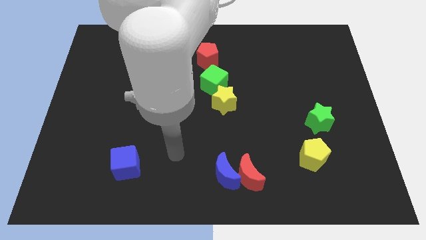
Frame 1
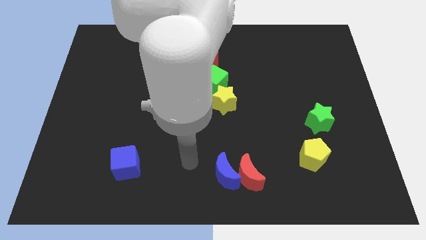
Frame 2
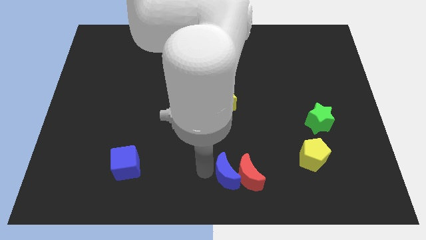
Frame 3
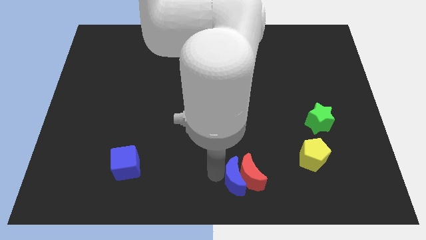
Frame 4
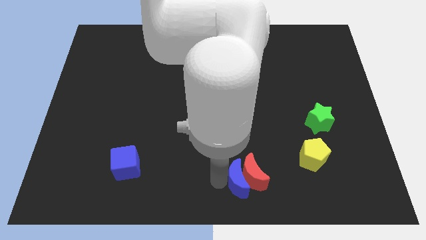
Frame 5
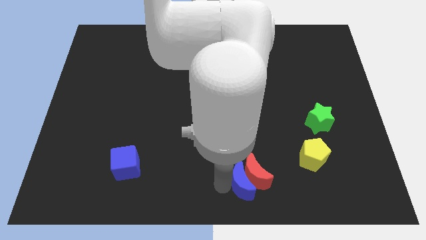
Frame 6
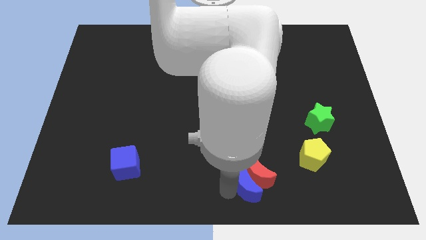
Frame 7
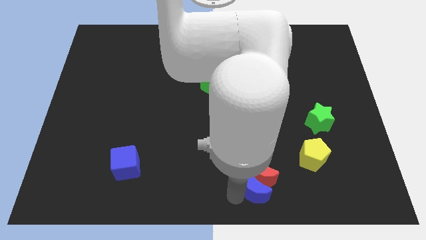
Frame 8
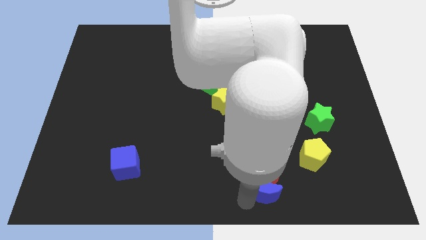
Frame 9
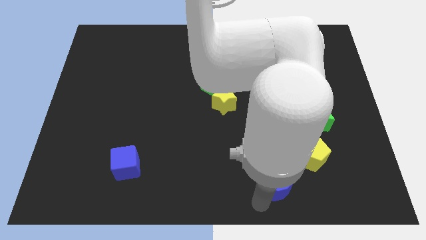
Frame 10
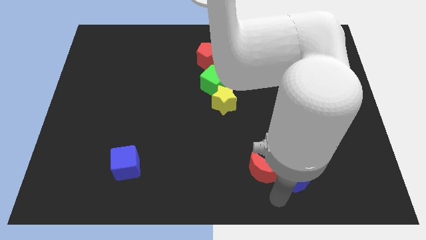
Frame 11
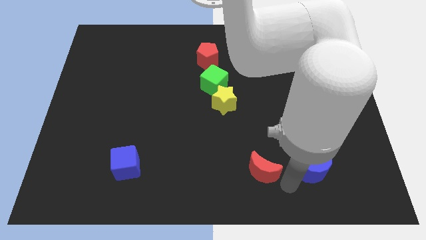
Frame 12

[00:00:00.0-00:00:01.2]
separate the red moon from the blue moon

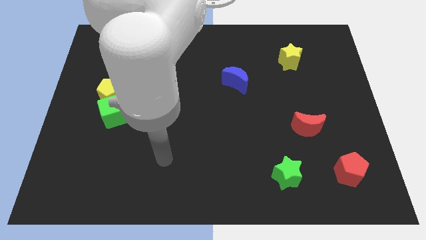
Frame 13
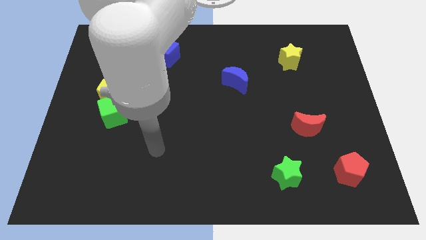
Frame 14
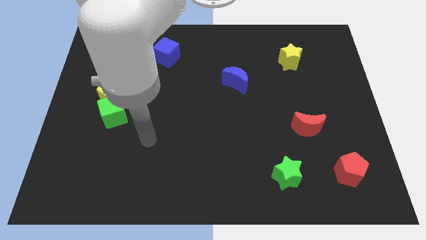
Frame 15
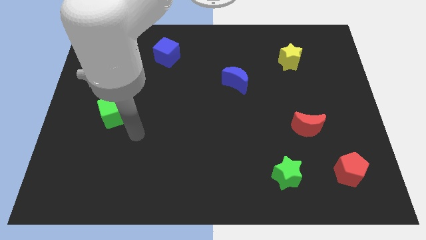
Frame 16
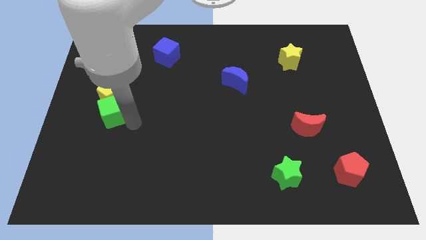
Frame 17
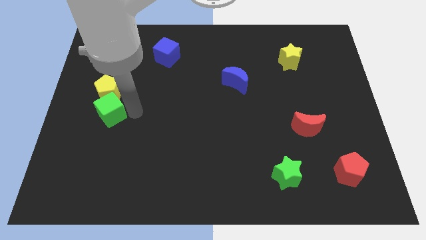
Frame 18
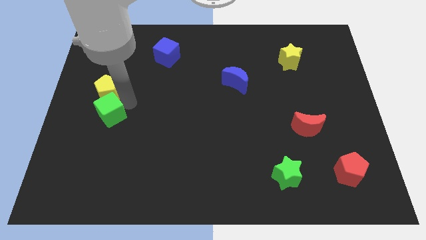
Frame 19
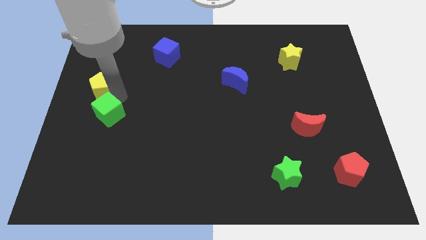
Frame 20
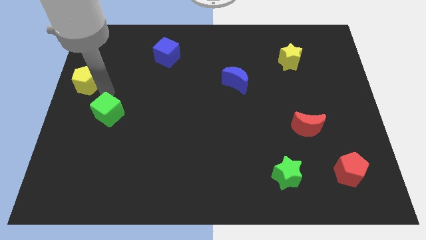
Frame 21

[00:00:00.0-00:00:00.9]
pull the green cube apart from the yellow pentagon

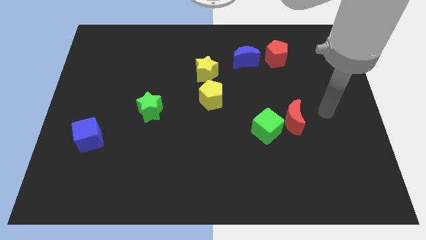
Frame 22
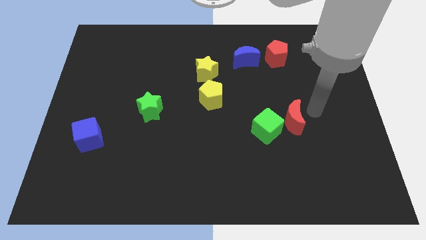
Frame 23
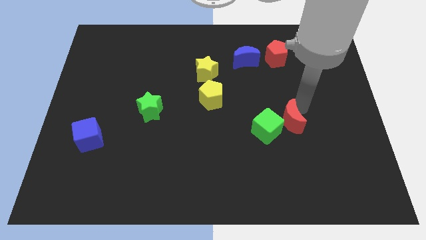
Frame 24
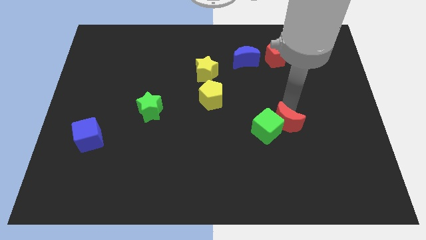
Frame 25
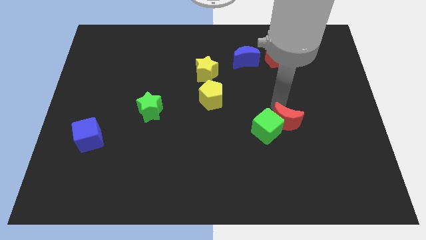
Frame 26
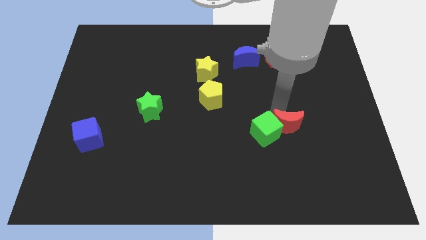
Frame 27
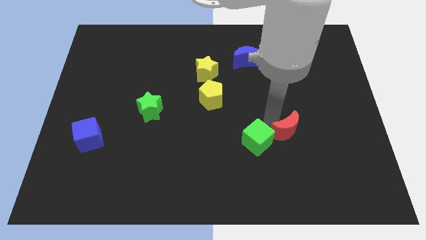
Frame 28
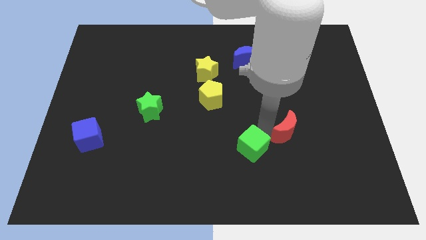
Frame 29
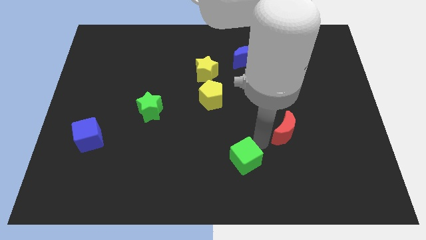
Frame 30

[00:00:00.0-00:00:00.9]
pull the red moon apart from the green cube

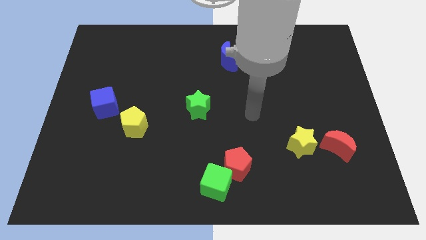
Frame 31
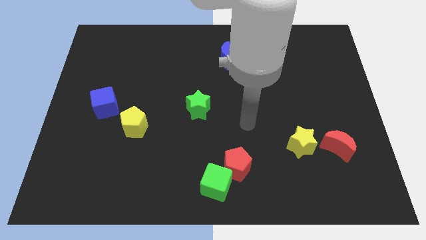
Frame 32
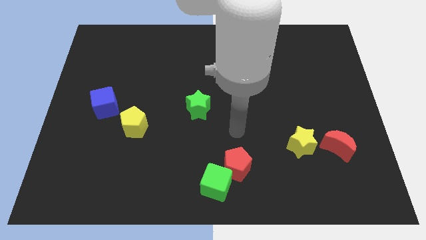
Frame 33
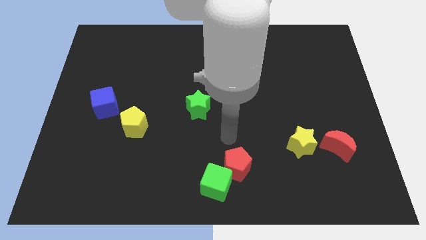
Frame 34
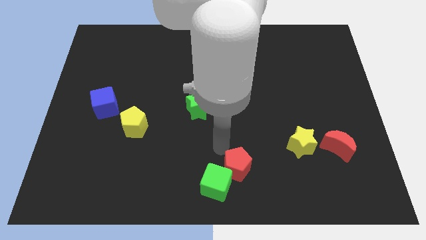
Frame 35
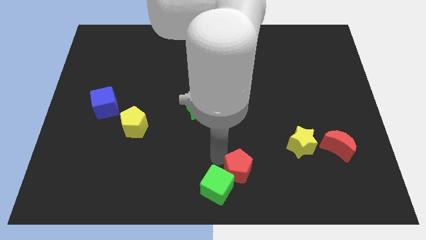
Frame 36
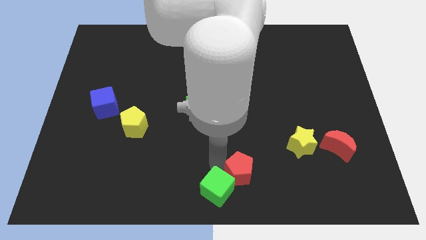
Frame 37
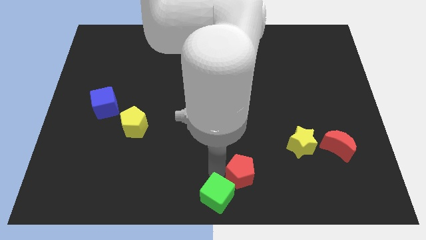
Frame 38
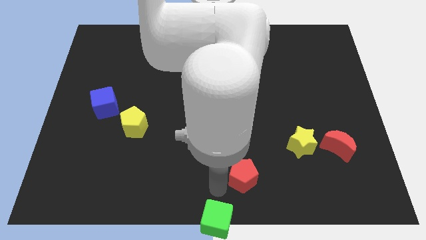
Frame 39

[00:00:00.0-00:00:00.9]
move the red pentagon away from the green cube

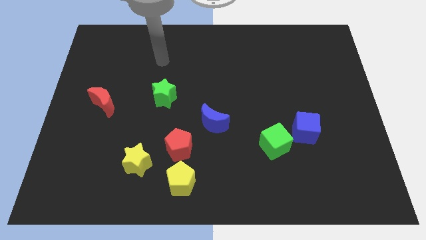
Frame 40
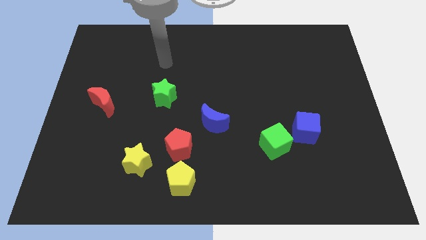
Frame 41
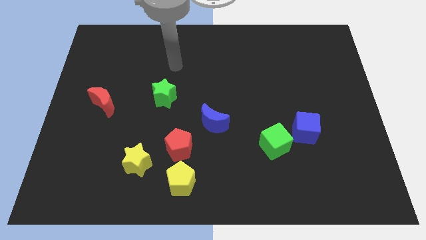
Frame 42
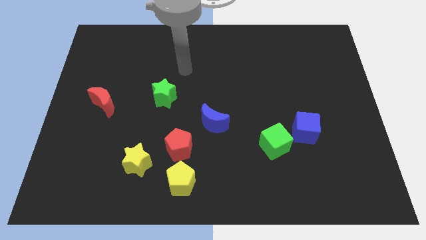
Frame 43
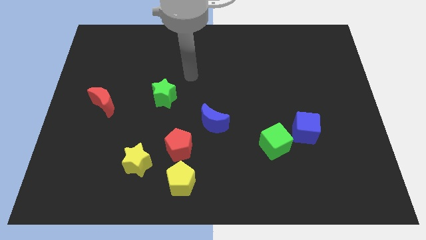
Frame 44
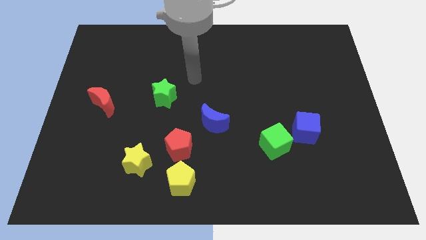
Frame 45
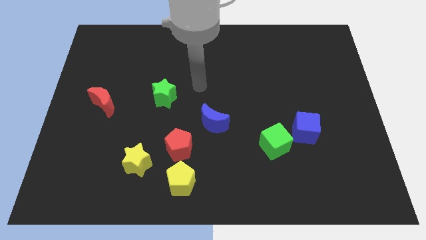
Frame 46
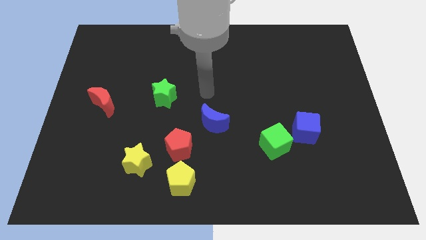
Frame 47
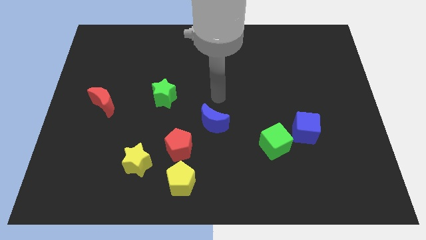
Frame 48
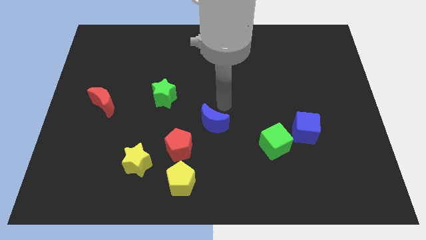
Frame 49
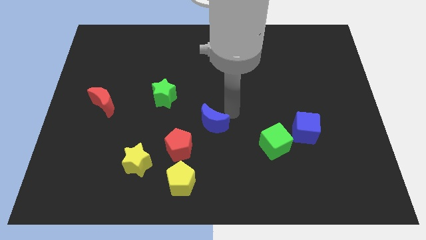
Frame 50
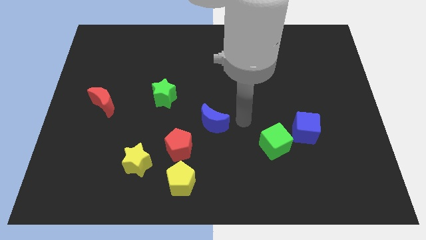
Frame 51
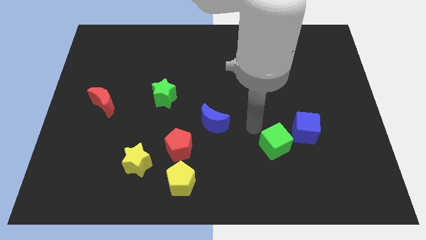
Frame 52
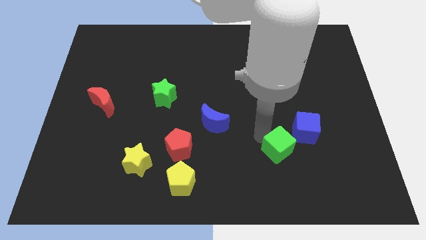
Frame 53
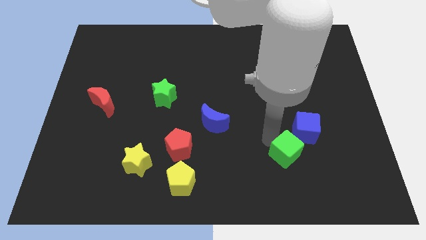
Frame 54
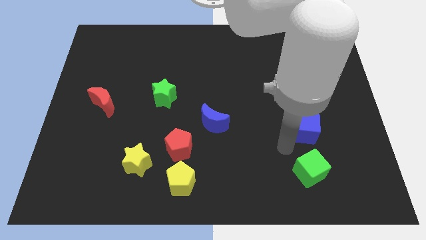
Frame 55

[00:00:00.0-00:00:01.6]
move the blue cube away from the green cube

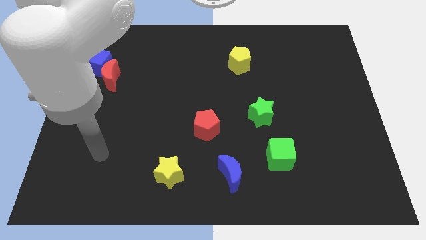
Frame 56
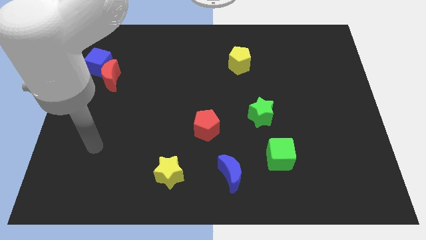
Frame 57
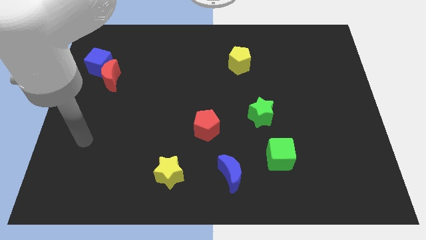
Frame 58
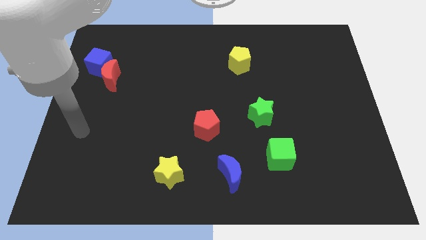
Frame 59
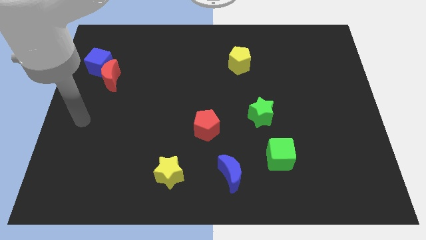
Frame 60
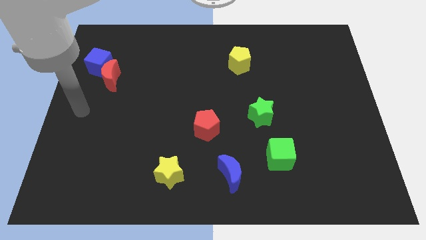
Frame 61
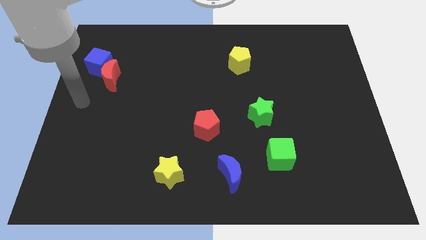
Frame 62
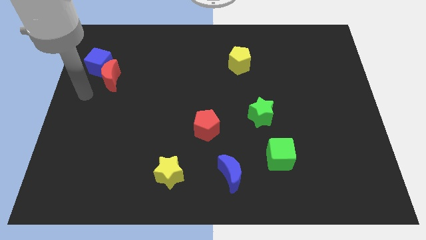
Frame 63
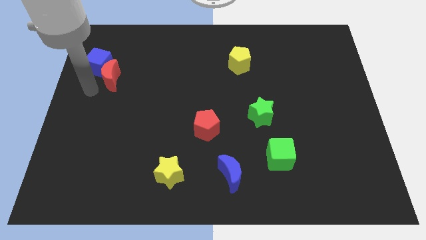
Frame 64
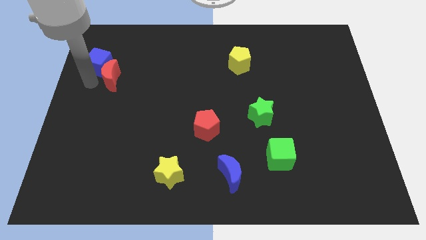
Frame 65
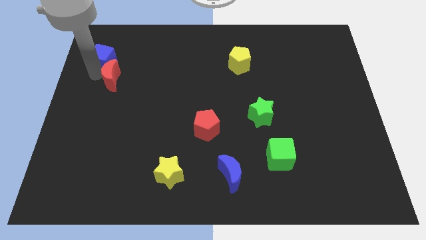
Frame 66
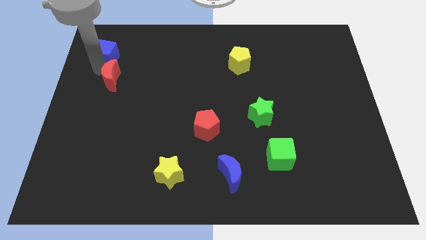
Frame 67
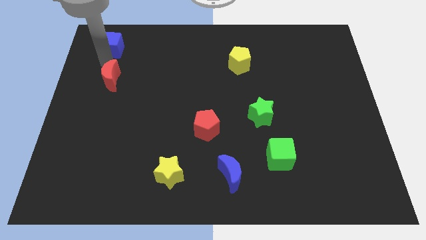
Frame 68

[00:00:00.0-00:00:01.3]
move the red moon away from the blue cube

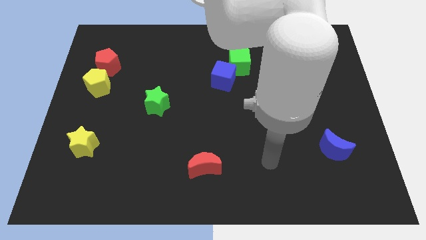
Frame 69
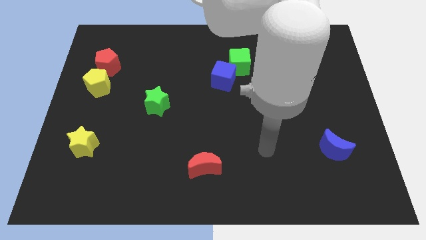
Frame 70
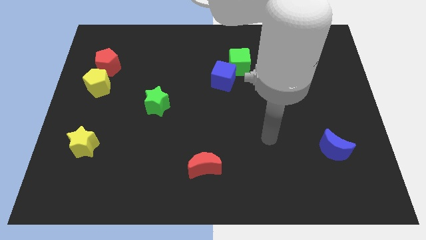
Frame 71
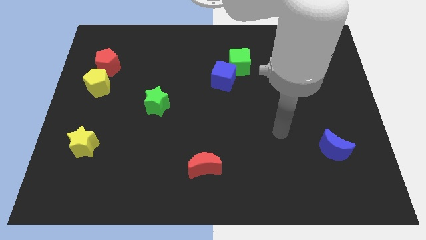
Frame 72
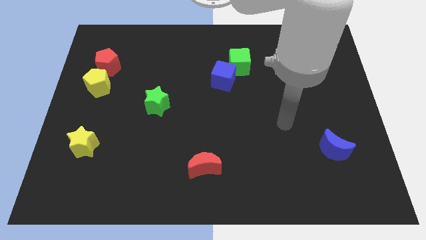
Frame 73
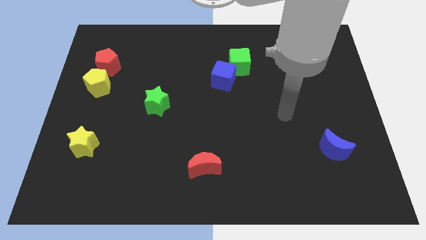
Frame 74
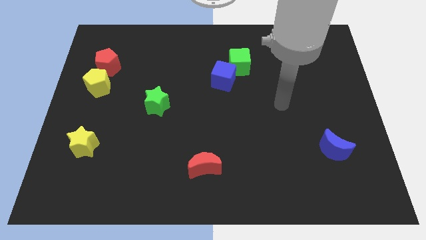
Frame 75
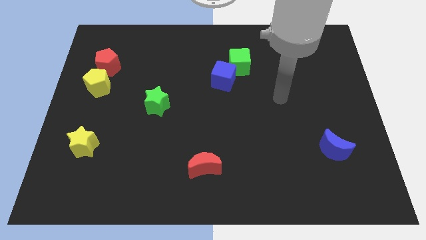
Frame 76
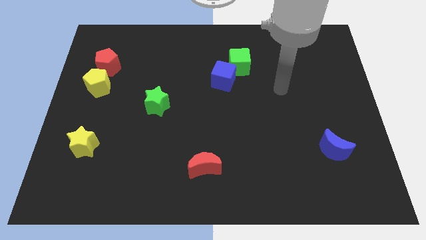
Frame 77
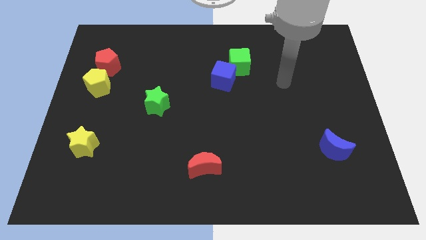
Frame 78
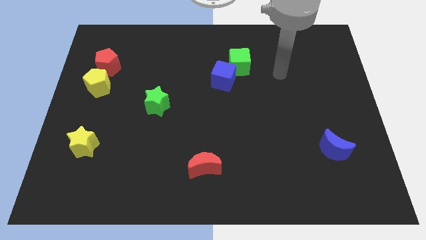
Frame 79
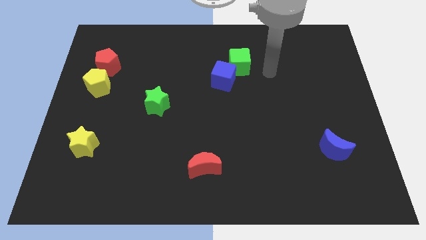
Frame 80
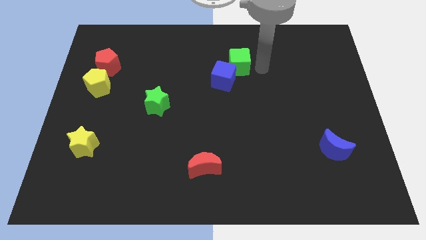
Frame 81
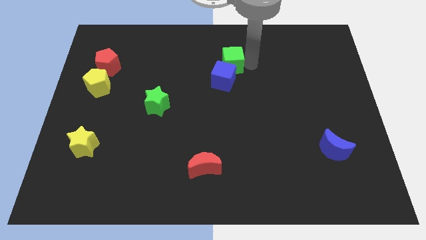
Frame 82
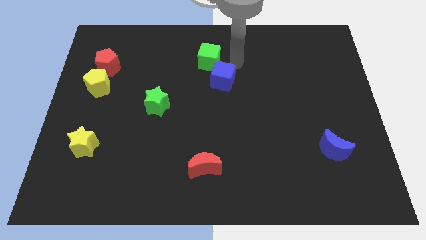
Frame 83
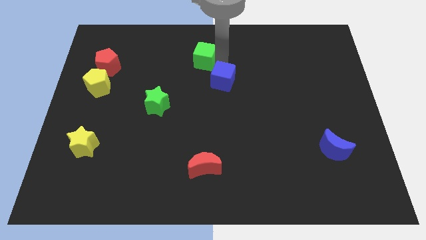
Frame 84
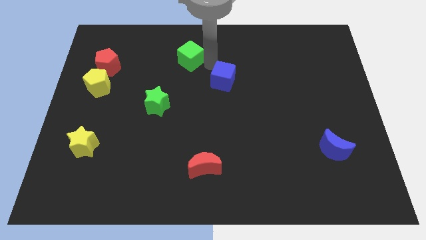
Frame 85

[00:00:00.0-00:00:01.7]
separate the blue cube from the green cube

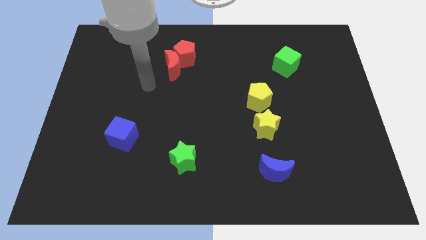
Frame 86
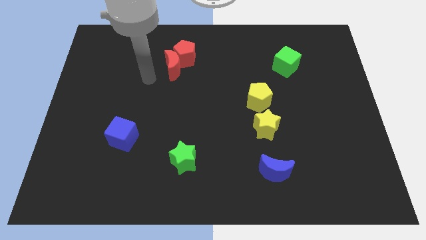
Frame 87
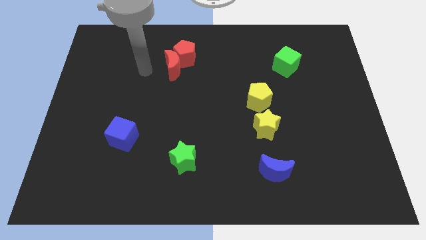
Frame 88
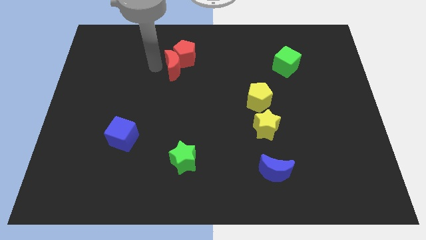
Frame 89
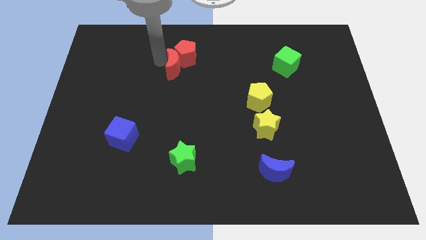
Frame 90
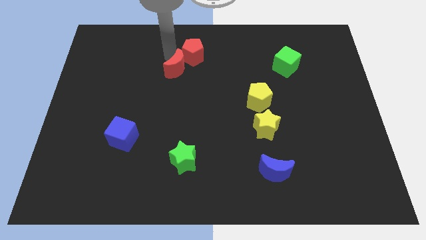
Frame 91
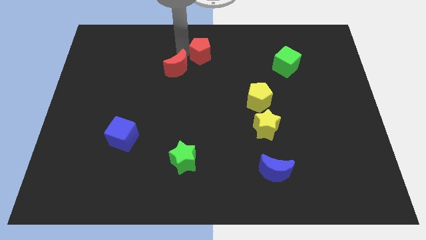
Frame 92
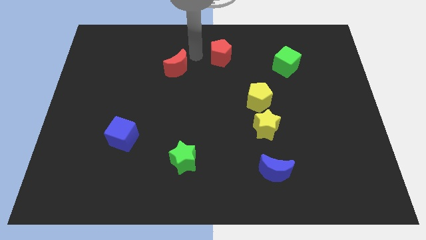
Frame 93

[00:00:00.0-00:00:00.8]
move the red moon away from the red pentagon

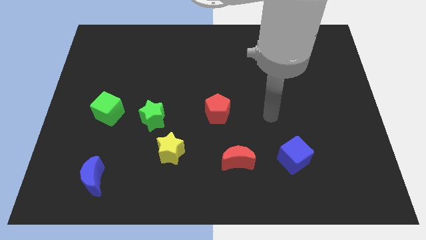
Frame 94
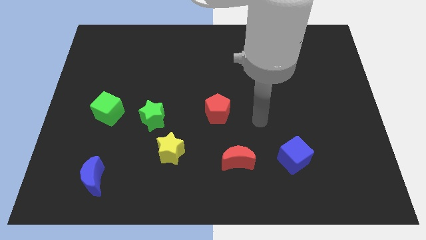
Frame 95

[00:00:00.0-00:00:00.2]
move the green star away from the yellow star
